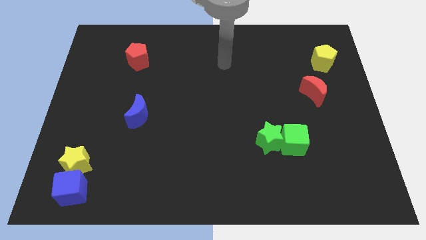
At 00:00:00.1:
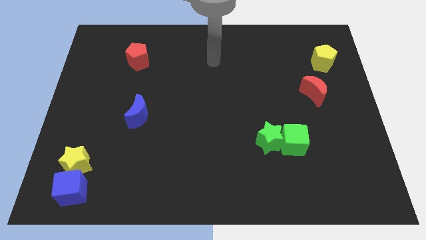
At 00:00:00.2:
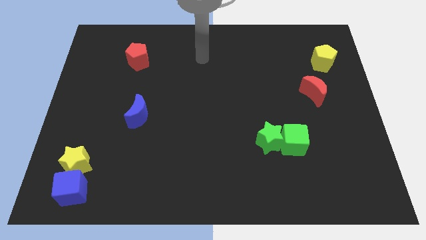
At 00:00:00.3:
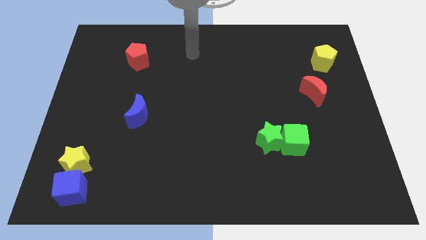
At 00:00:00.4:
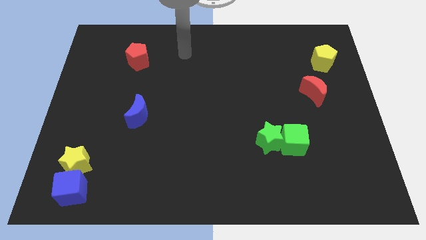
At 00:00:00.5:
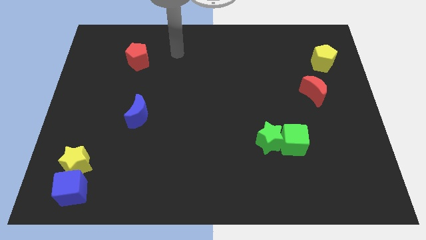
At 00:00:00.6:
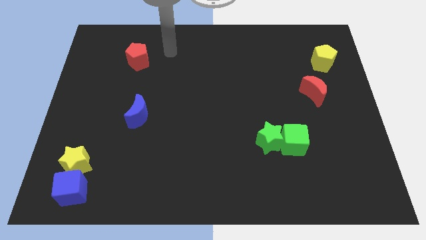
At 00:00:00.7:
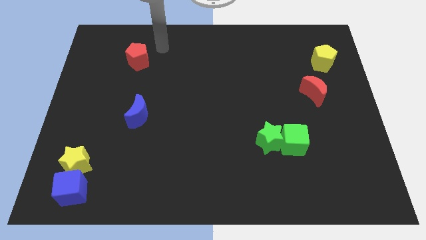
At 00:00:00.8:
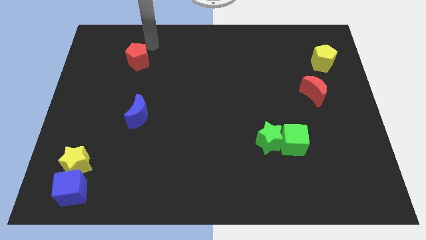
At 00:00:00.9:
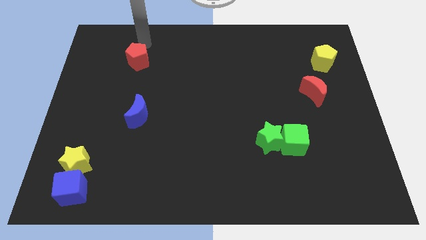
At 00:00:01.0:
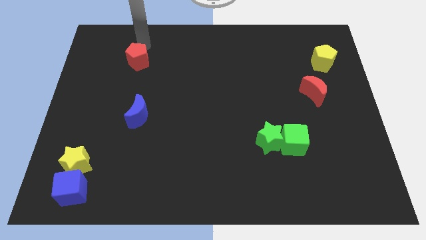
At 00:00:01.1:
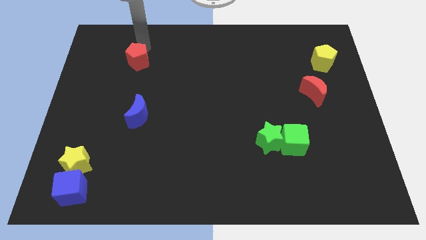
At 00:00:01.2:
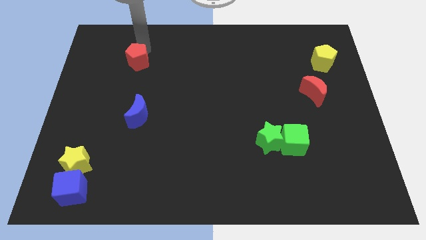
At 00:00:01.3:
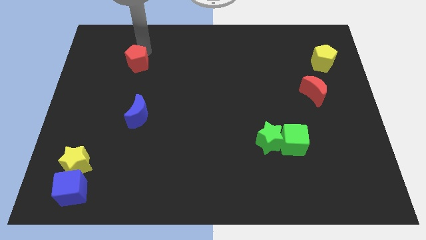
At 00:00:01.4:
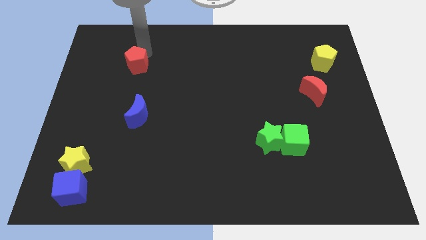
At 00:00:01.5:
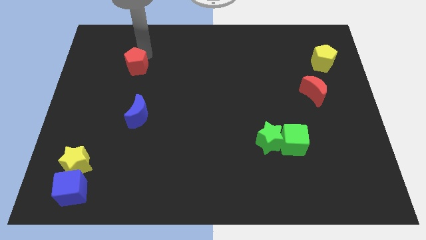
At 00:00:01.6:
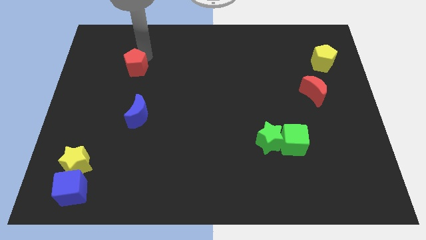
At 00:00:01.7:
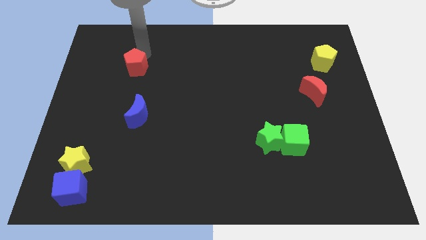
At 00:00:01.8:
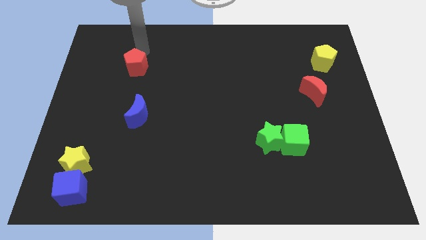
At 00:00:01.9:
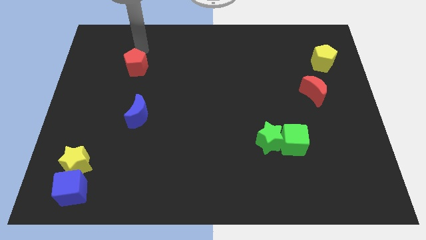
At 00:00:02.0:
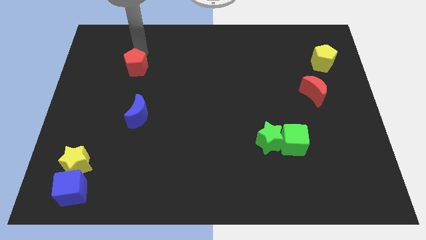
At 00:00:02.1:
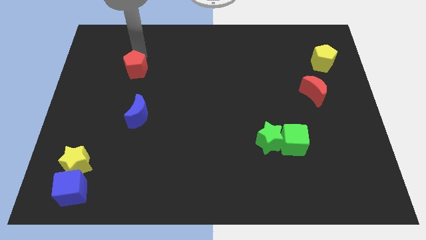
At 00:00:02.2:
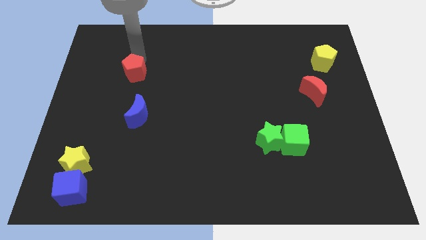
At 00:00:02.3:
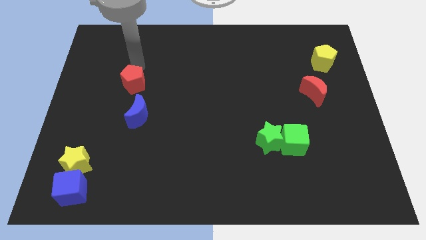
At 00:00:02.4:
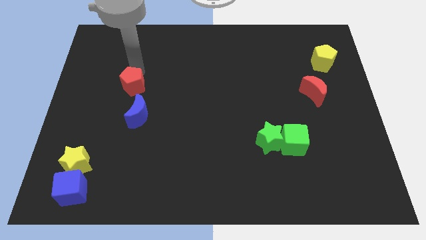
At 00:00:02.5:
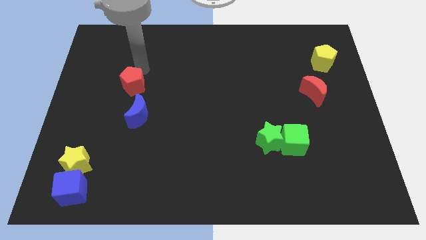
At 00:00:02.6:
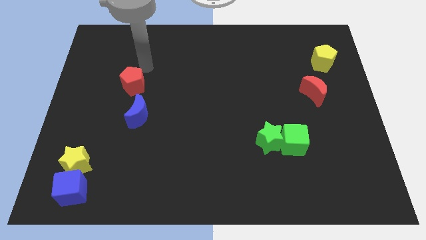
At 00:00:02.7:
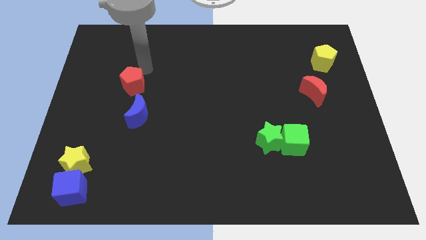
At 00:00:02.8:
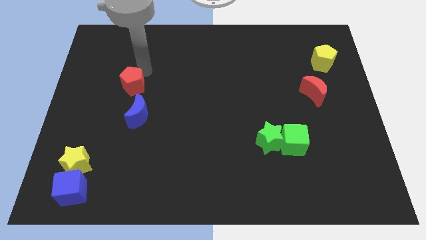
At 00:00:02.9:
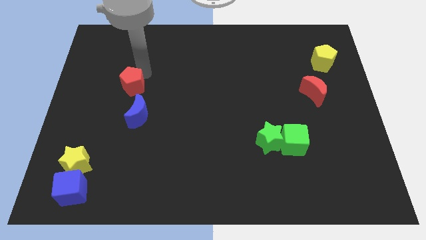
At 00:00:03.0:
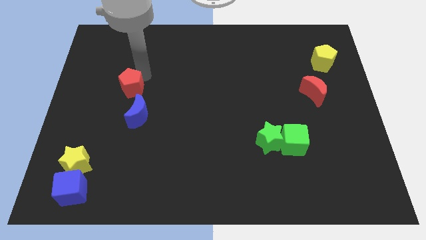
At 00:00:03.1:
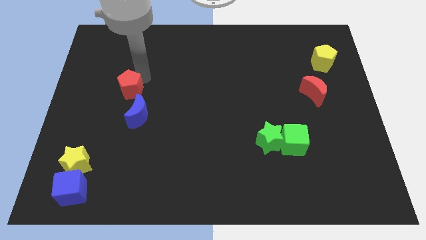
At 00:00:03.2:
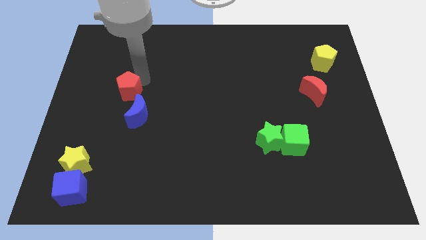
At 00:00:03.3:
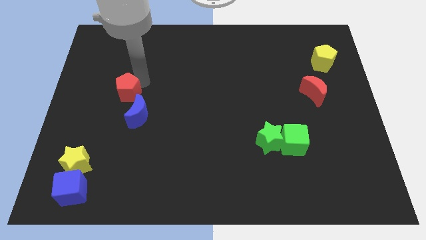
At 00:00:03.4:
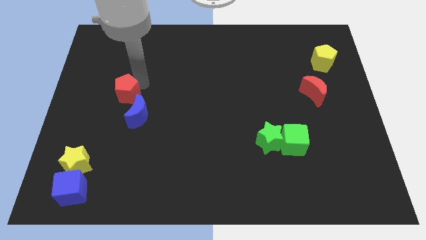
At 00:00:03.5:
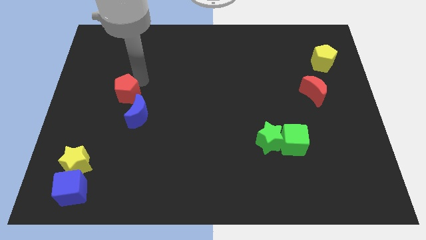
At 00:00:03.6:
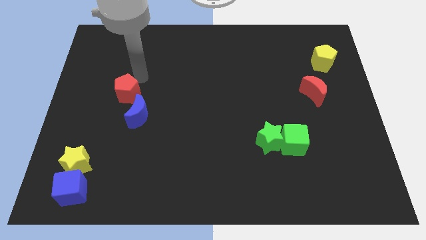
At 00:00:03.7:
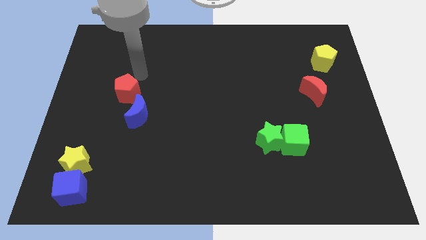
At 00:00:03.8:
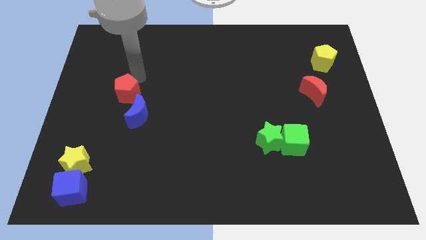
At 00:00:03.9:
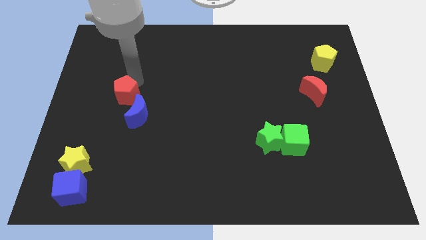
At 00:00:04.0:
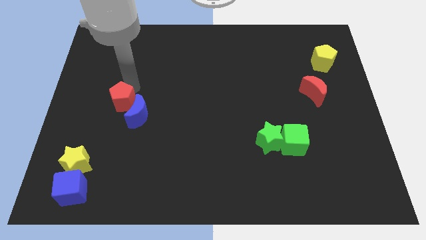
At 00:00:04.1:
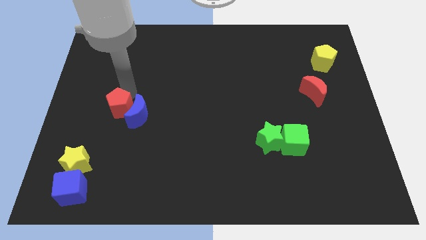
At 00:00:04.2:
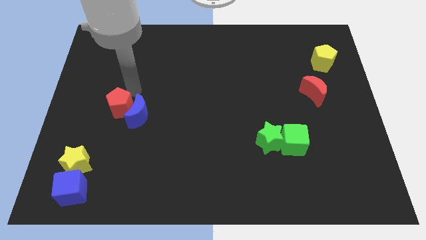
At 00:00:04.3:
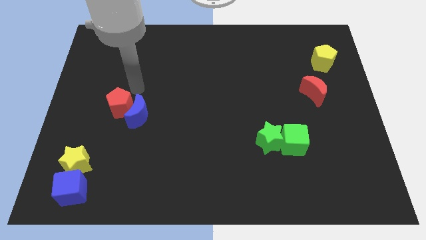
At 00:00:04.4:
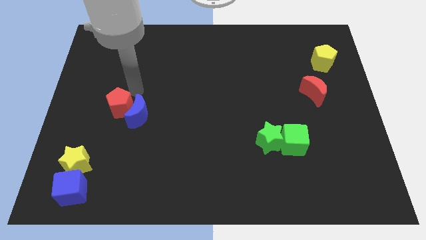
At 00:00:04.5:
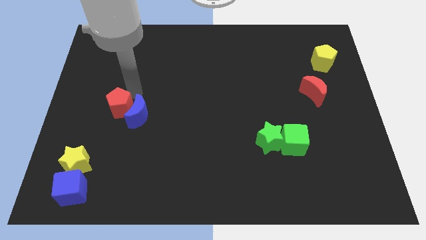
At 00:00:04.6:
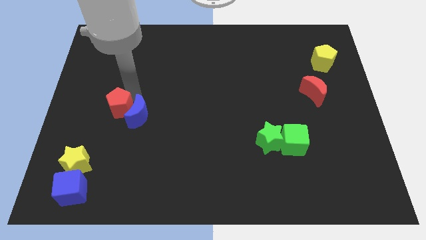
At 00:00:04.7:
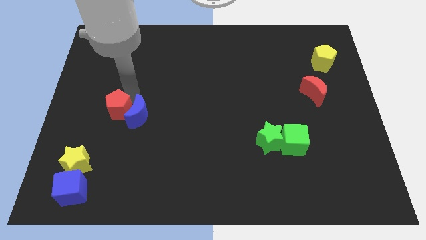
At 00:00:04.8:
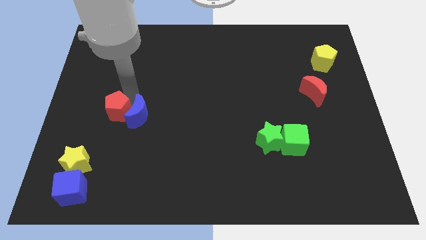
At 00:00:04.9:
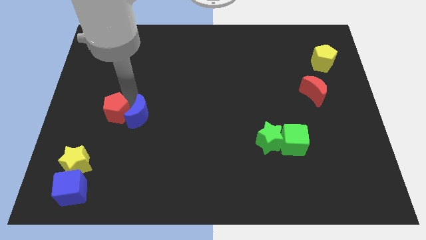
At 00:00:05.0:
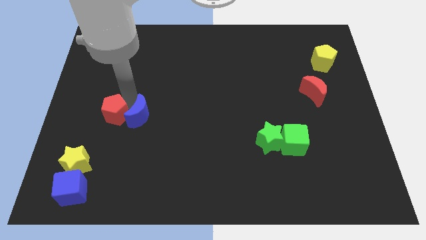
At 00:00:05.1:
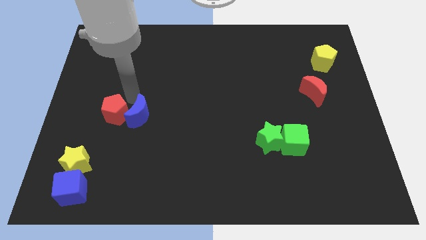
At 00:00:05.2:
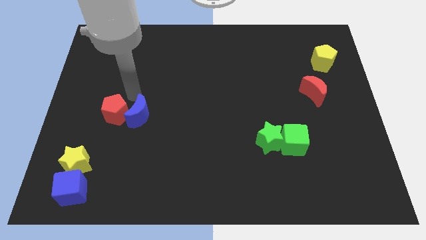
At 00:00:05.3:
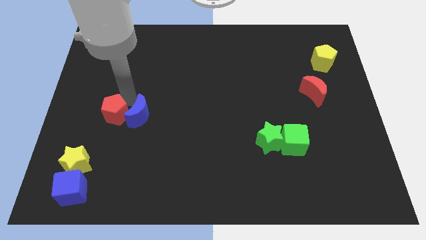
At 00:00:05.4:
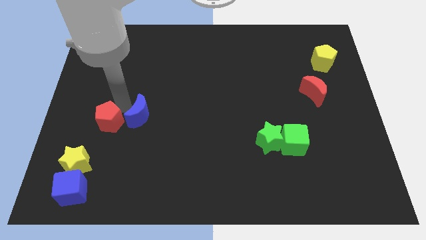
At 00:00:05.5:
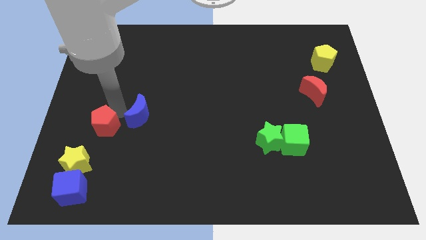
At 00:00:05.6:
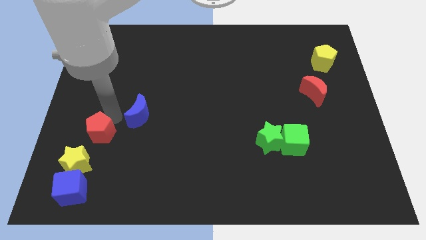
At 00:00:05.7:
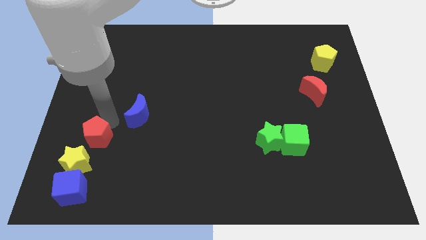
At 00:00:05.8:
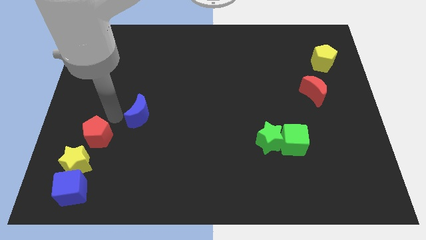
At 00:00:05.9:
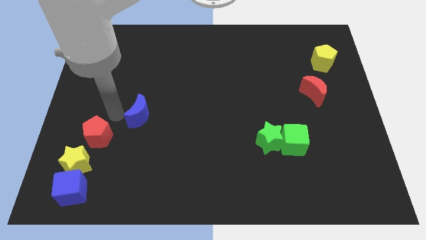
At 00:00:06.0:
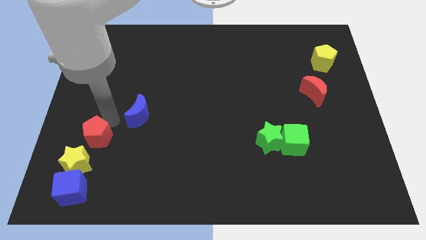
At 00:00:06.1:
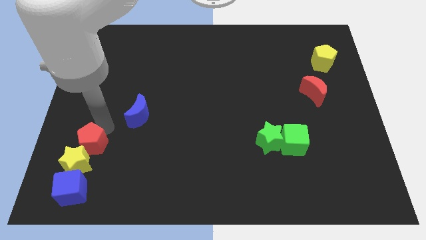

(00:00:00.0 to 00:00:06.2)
move the red pentagon to the yellow star

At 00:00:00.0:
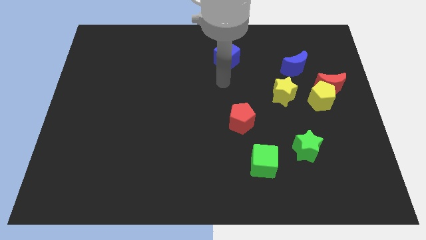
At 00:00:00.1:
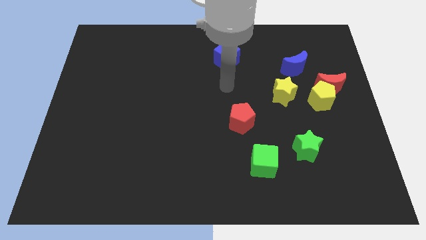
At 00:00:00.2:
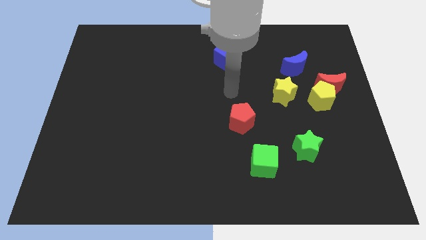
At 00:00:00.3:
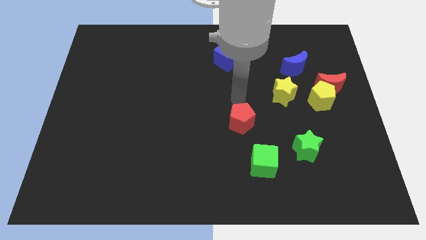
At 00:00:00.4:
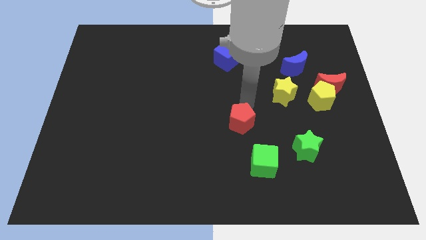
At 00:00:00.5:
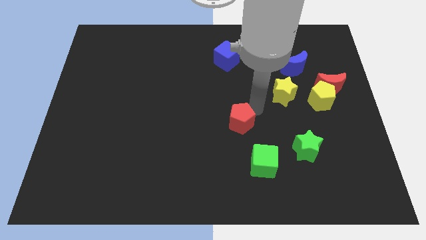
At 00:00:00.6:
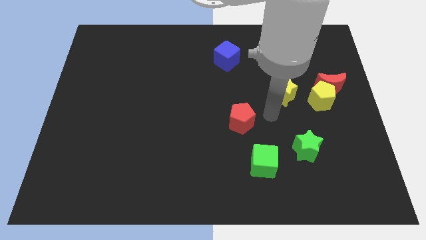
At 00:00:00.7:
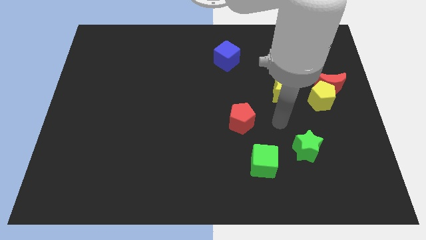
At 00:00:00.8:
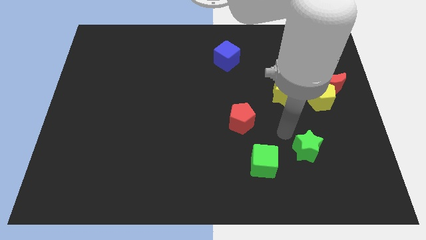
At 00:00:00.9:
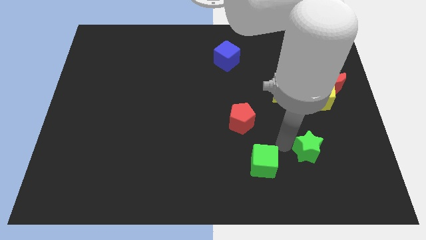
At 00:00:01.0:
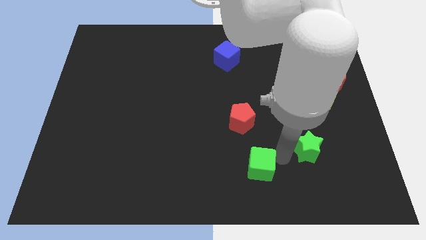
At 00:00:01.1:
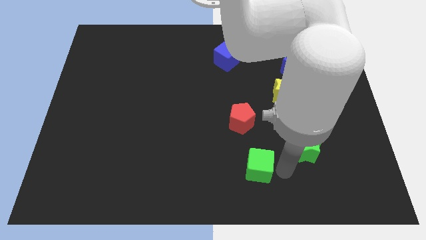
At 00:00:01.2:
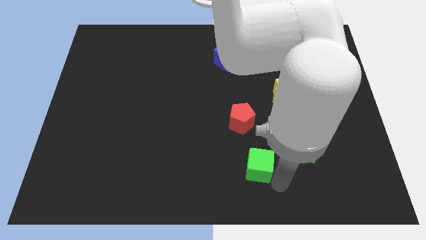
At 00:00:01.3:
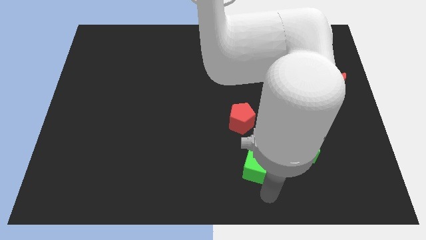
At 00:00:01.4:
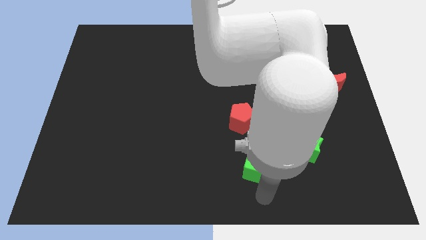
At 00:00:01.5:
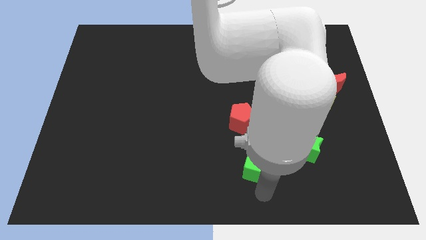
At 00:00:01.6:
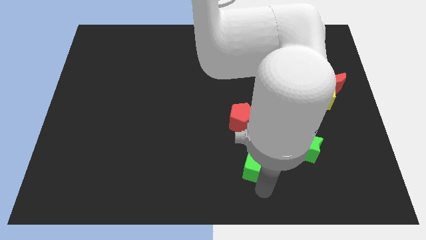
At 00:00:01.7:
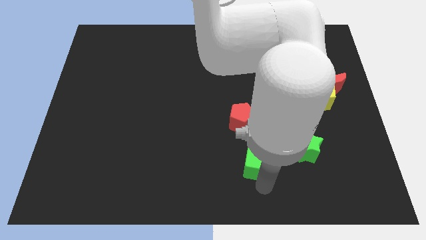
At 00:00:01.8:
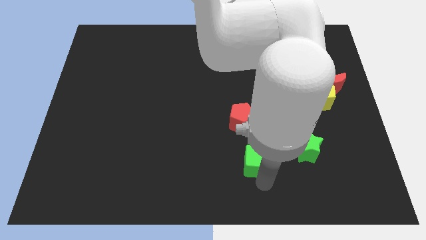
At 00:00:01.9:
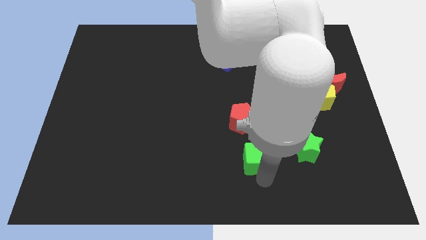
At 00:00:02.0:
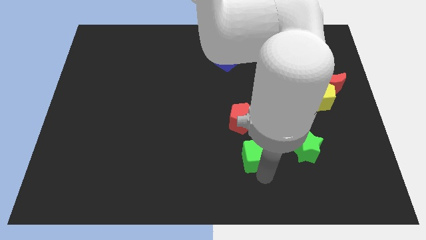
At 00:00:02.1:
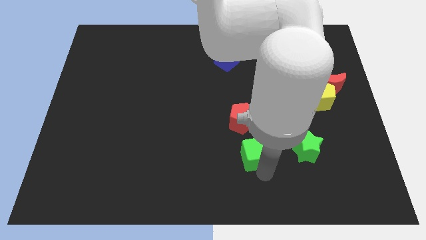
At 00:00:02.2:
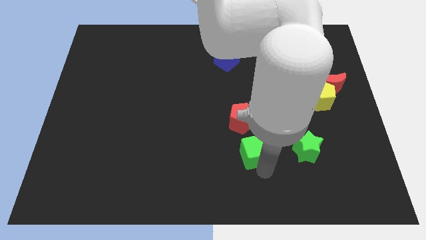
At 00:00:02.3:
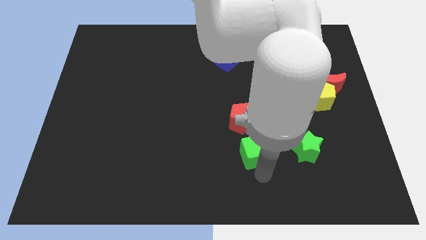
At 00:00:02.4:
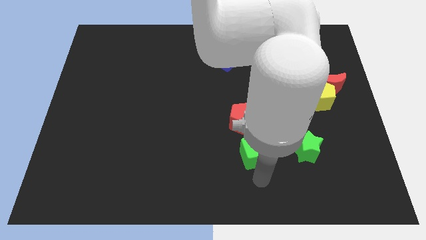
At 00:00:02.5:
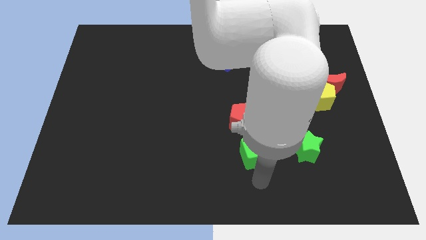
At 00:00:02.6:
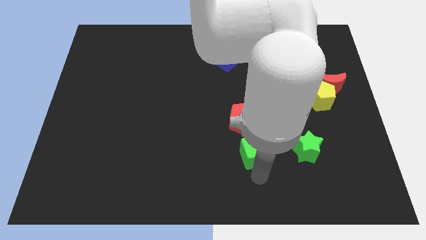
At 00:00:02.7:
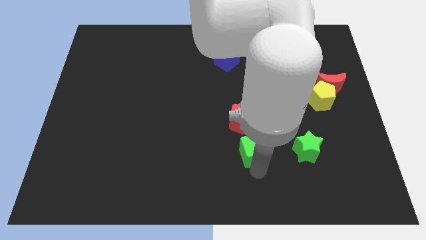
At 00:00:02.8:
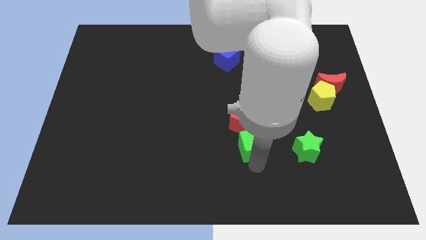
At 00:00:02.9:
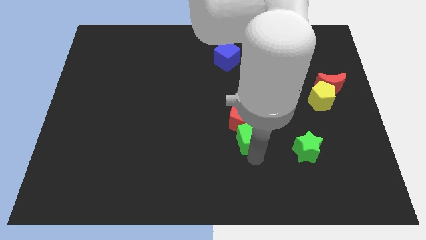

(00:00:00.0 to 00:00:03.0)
slide the green cube close to the red pentagon
